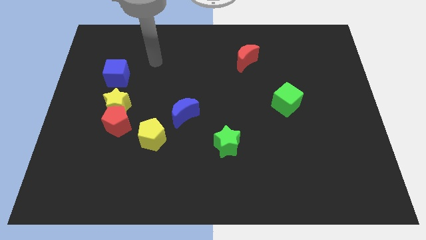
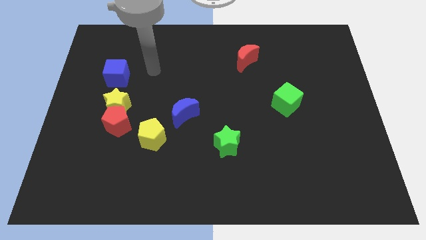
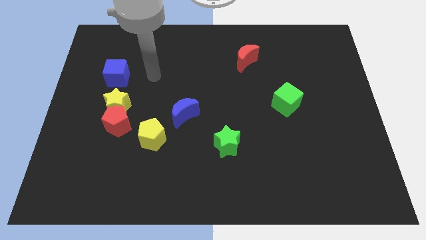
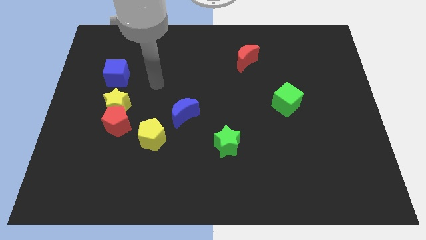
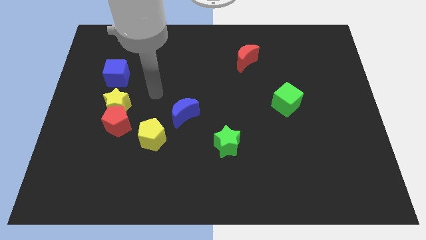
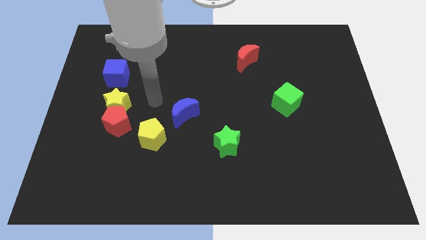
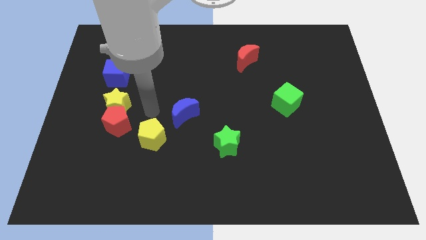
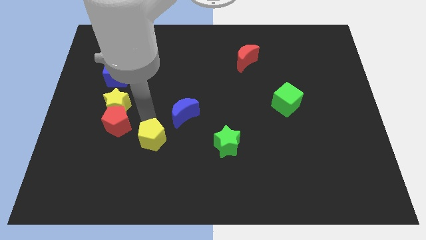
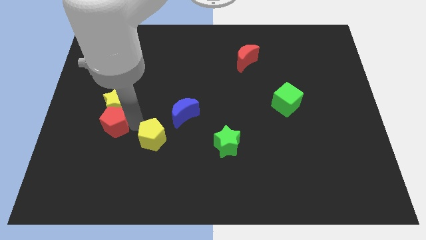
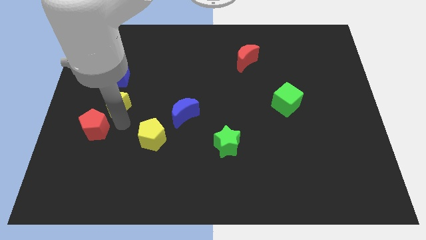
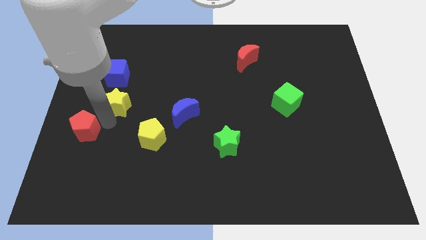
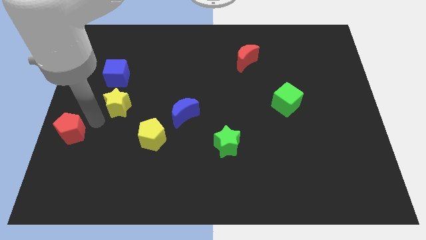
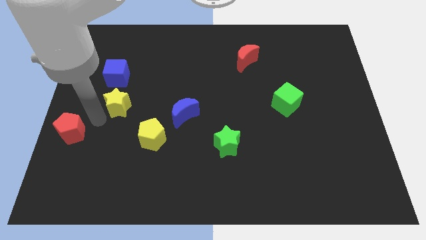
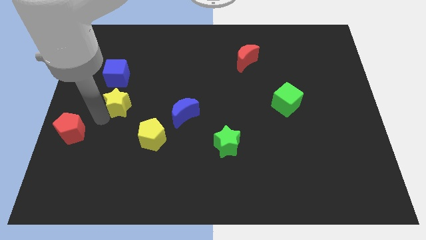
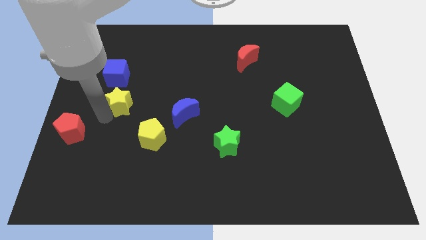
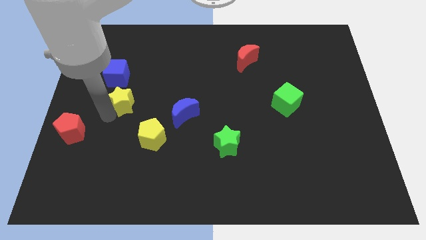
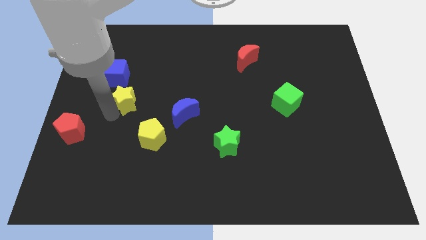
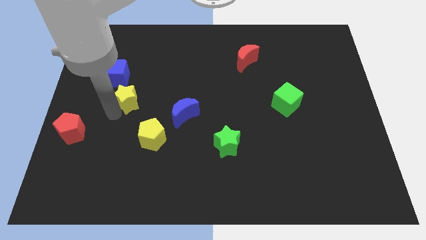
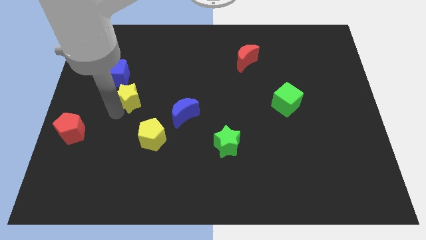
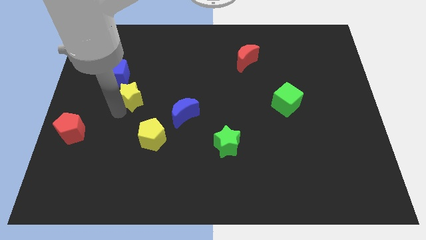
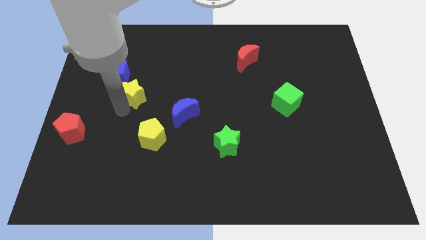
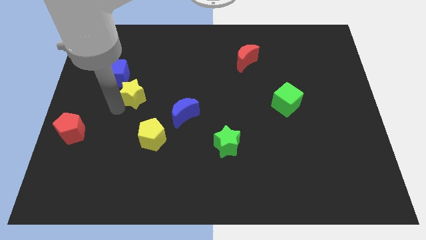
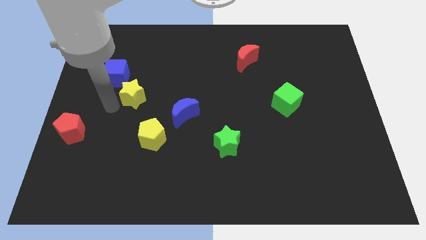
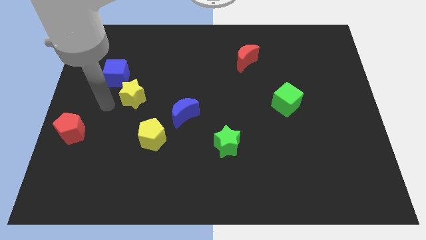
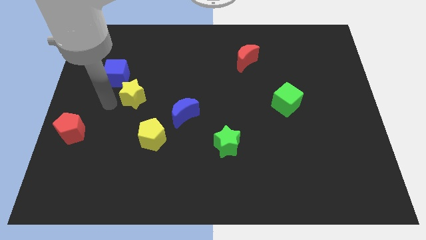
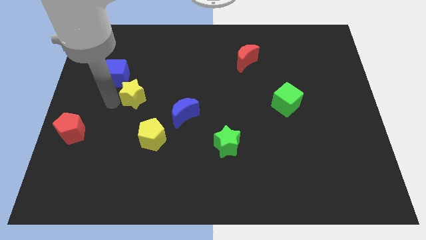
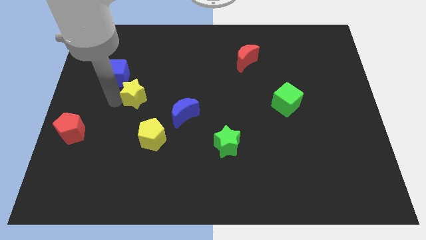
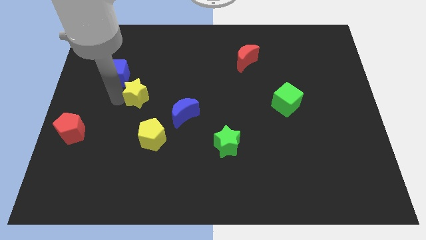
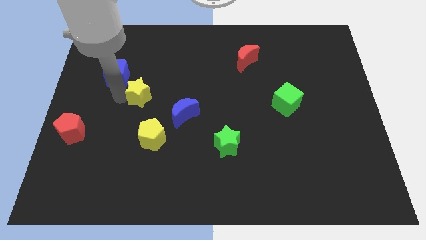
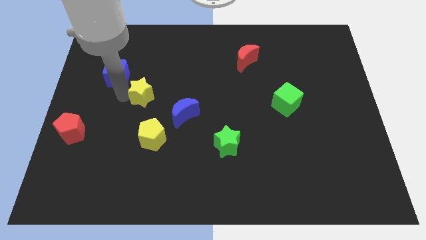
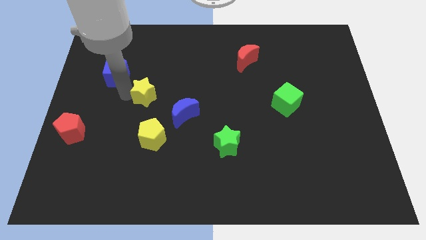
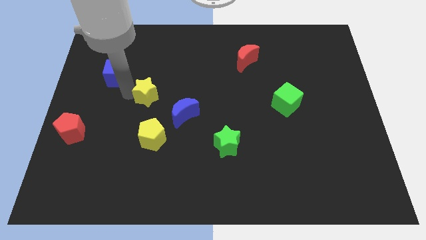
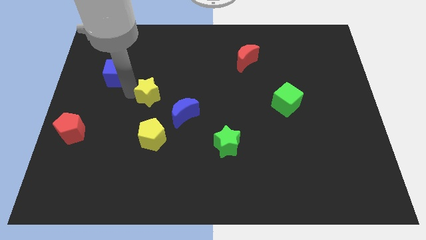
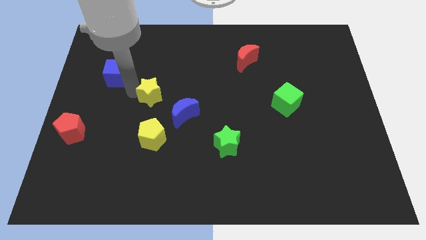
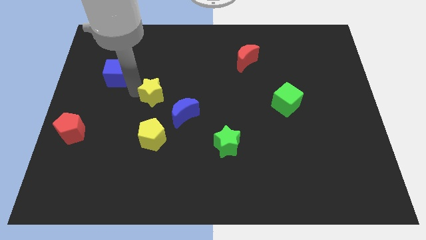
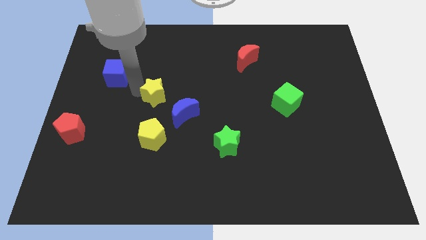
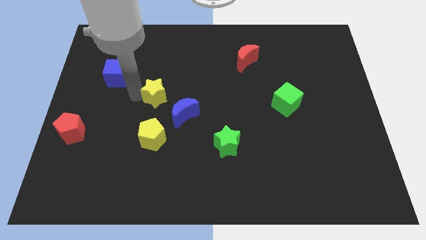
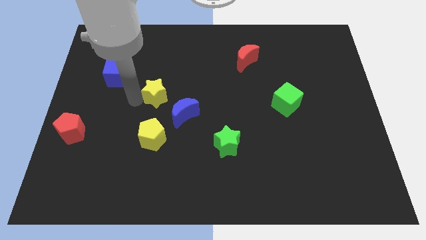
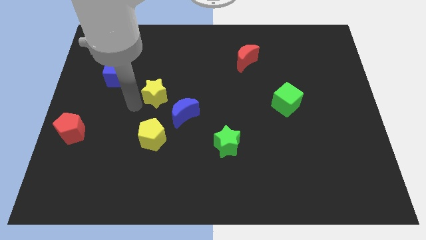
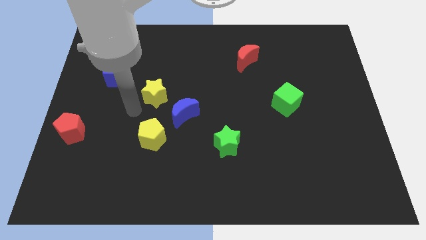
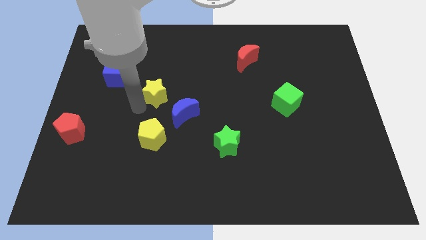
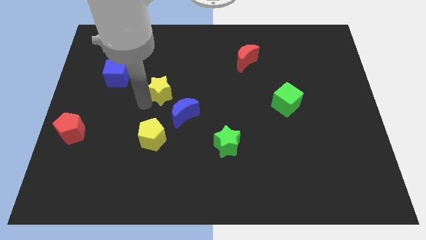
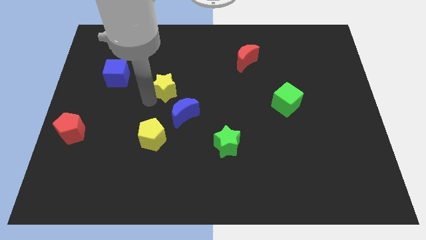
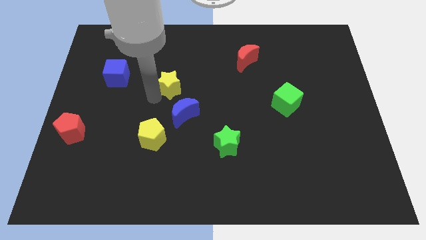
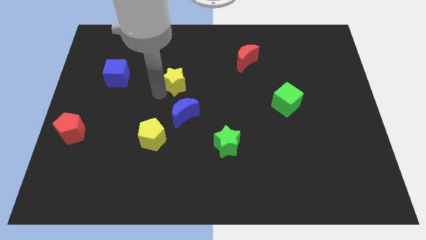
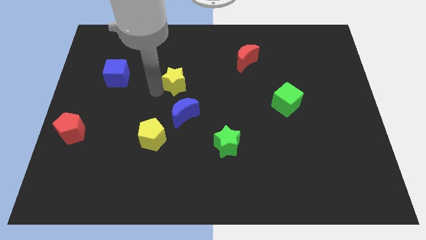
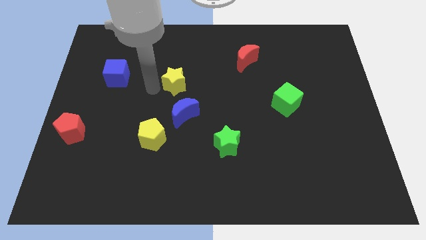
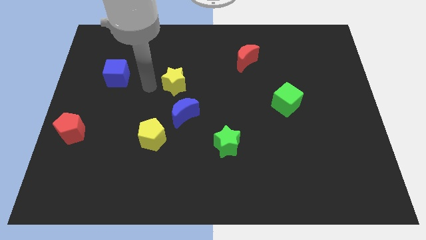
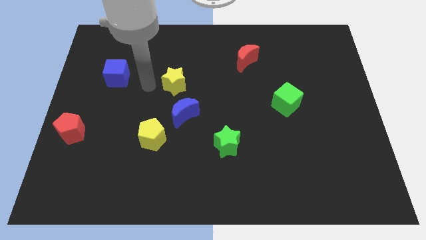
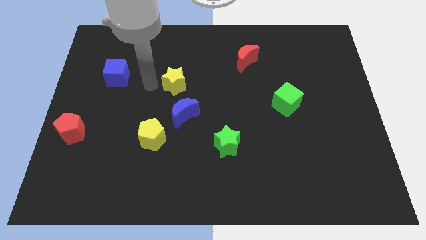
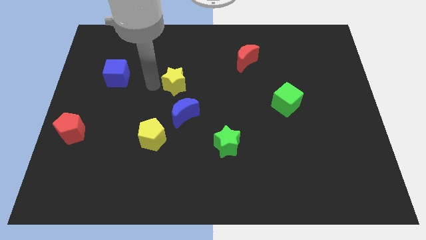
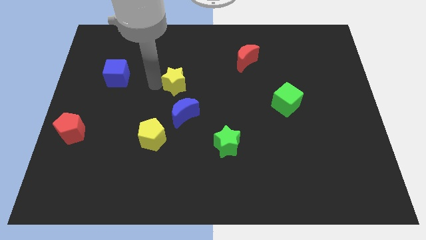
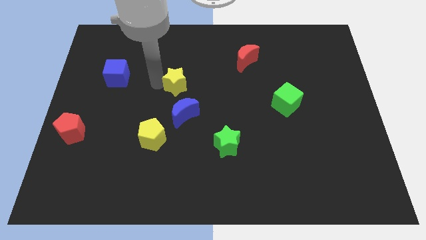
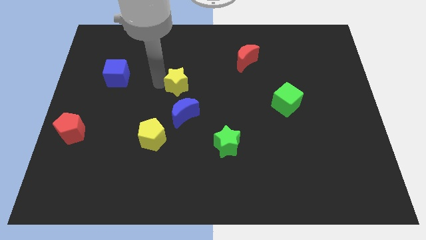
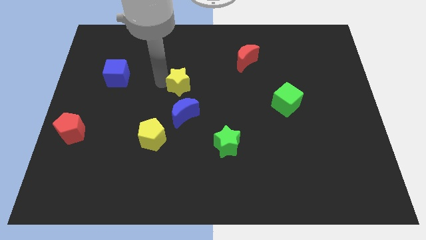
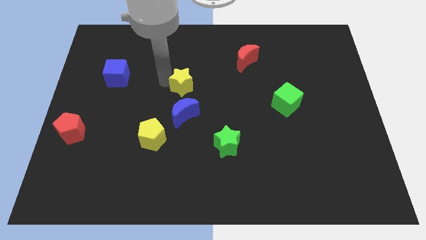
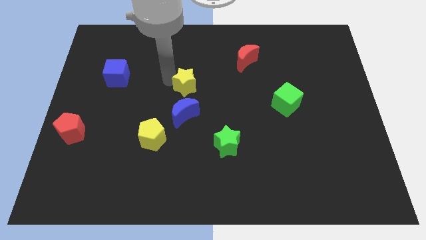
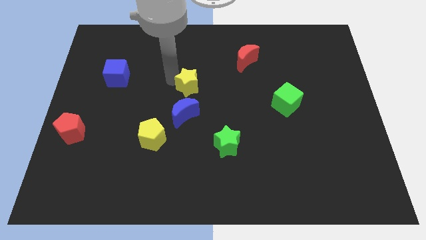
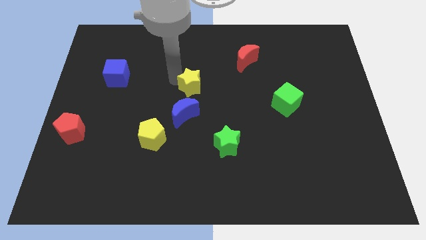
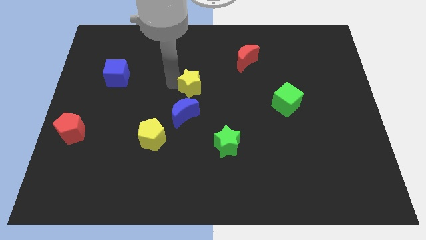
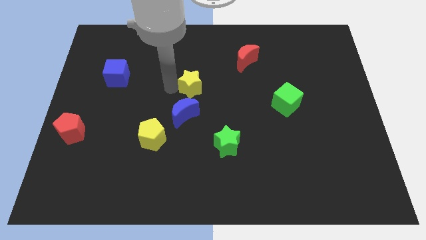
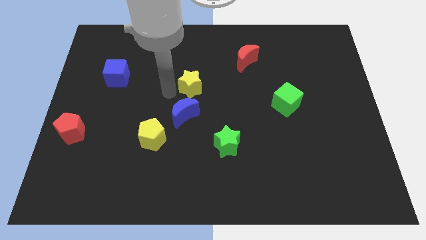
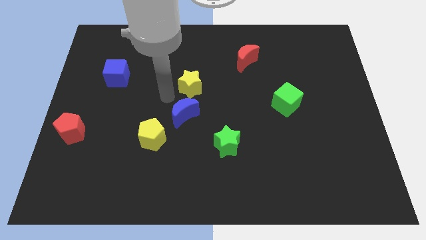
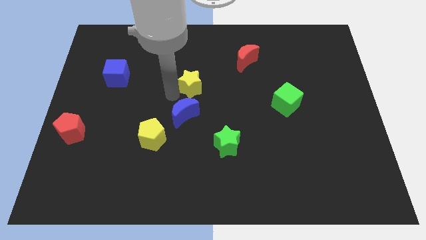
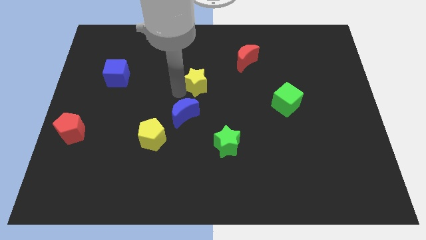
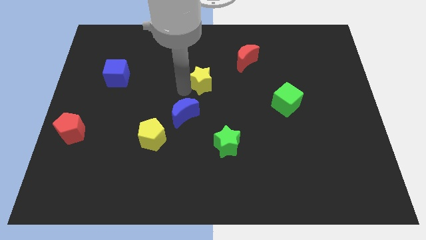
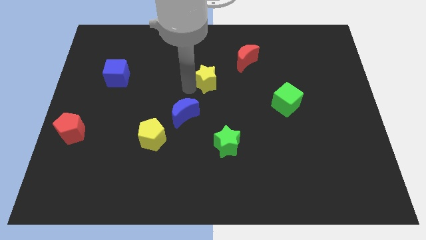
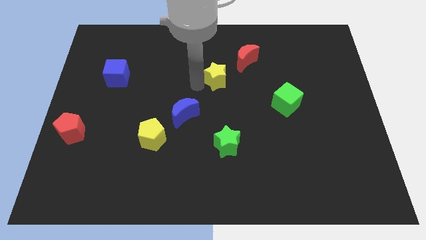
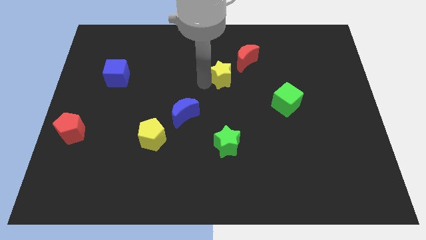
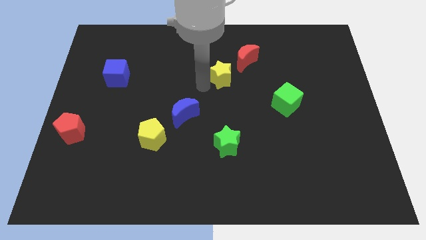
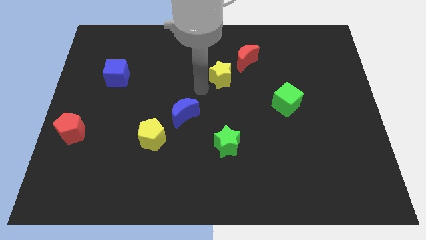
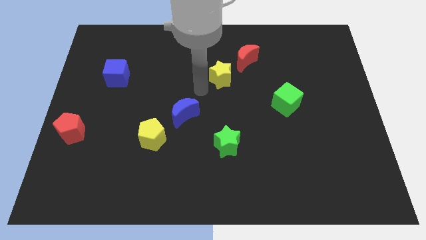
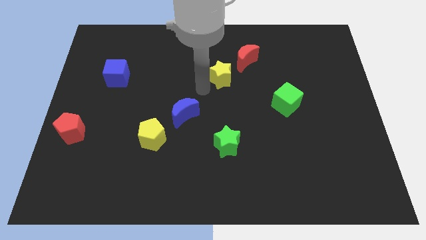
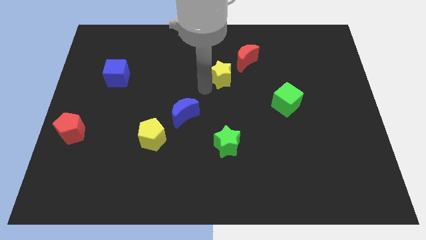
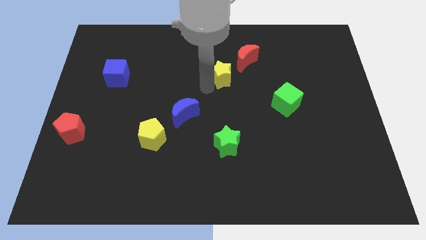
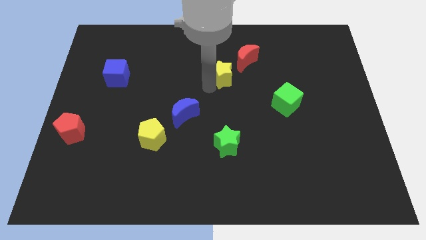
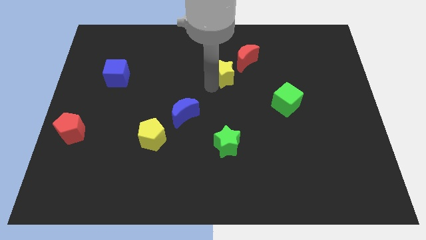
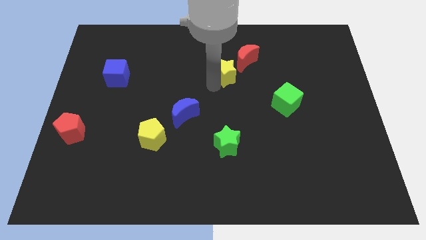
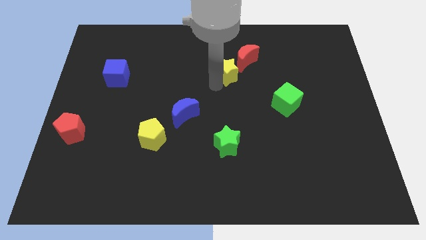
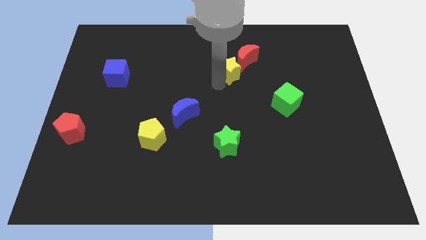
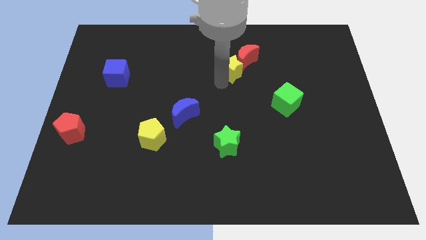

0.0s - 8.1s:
put the yellow star next to the red moon
